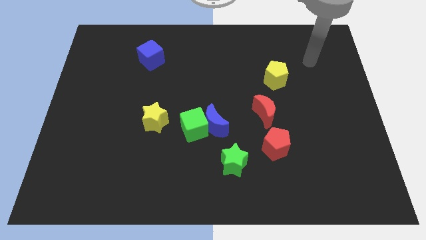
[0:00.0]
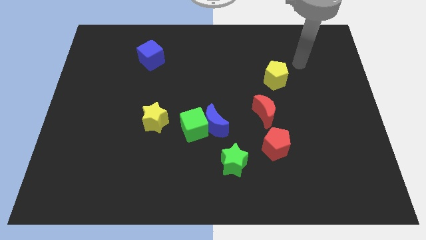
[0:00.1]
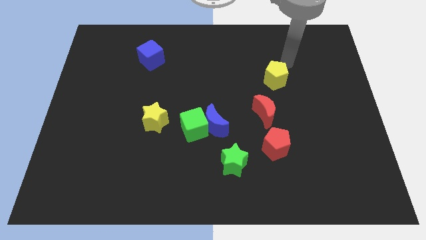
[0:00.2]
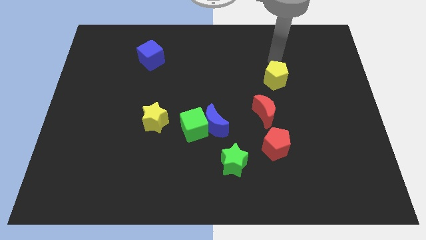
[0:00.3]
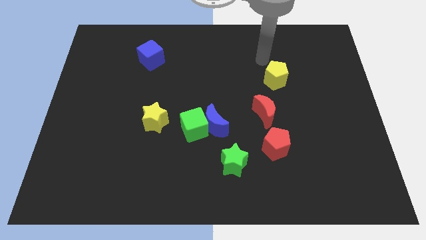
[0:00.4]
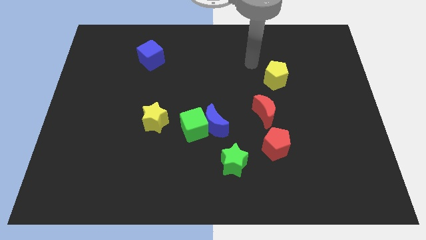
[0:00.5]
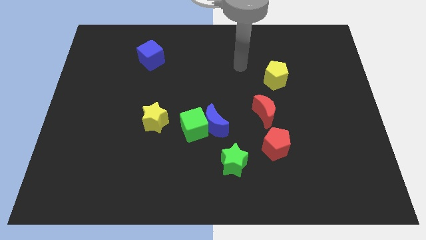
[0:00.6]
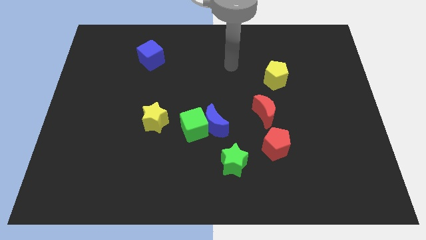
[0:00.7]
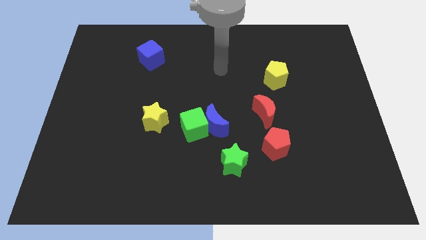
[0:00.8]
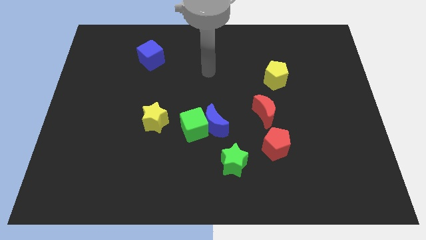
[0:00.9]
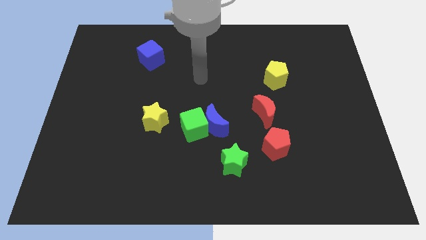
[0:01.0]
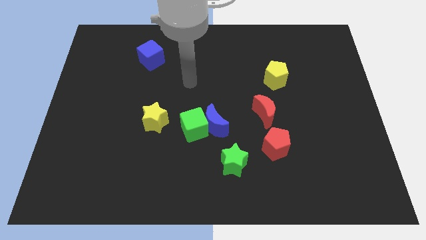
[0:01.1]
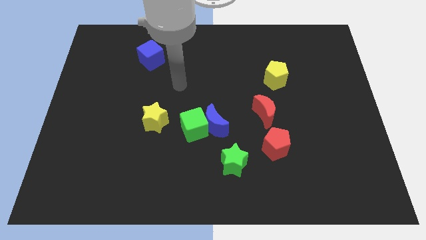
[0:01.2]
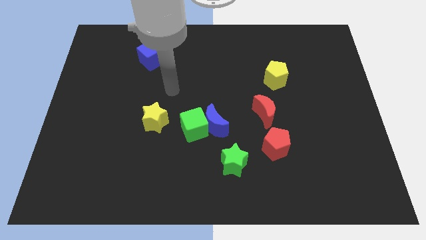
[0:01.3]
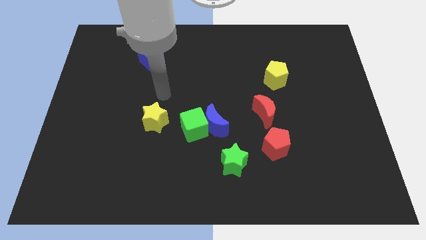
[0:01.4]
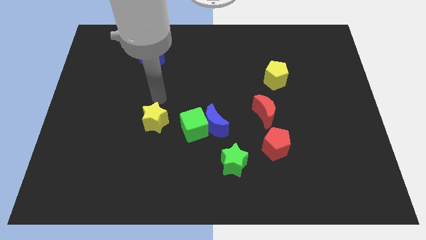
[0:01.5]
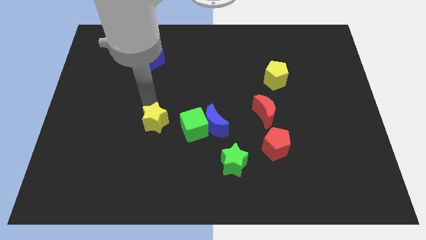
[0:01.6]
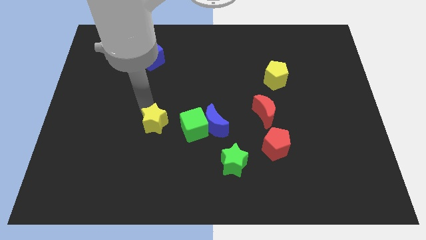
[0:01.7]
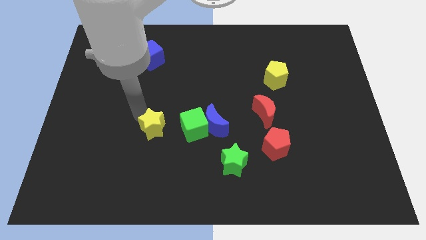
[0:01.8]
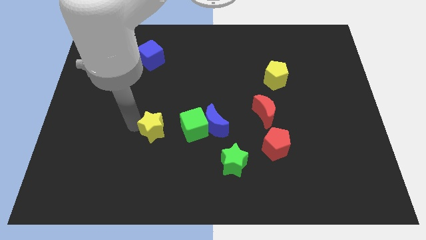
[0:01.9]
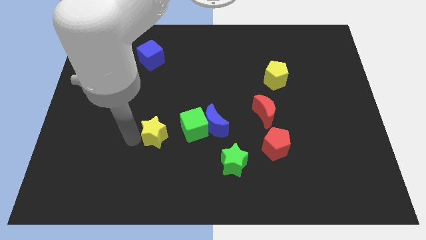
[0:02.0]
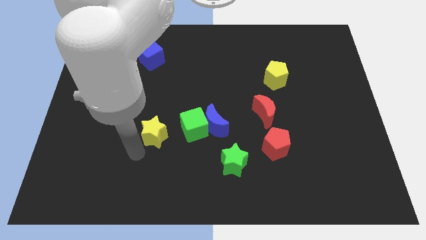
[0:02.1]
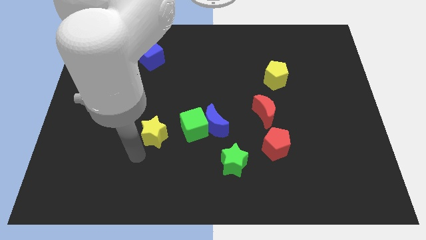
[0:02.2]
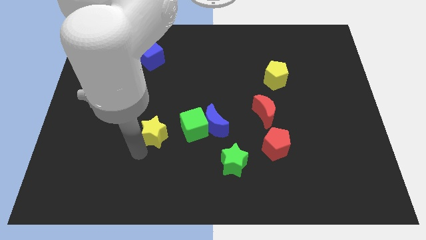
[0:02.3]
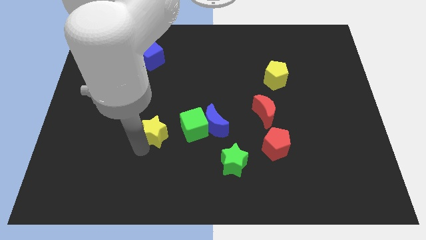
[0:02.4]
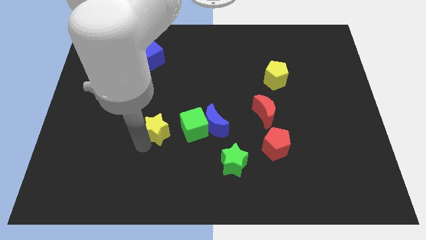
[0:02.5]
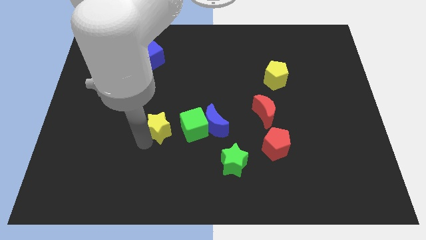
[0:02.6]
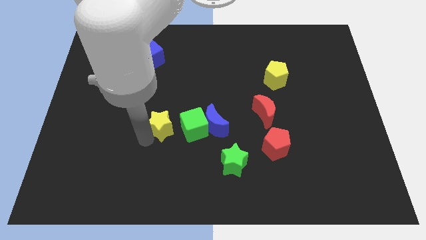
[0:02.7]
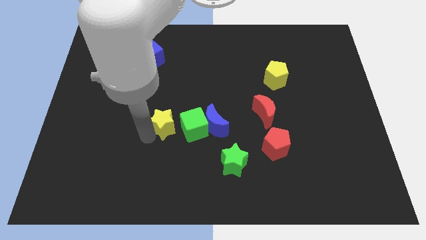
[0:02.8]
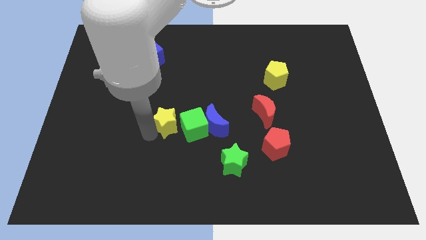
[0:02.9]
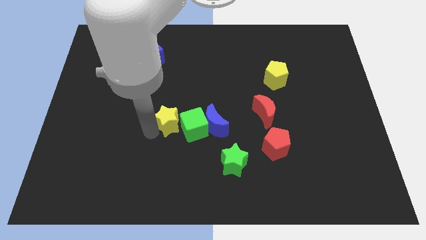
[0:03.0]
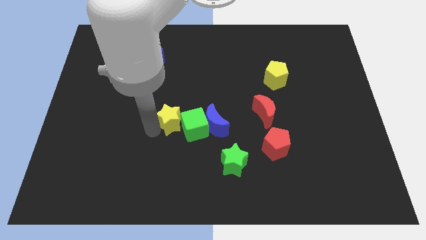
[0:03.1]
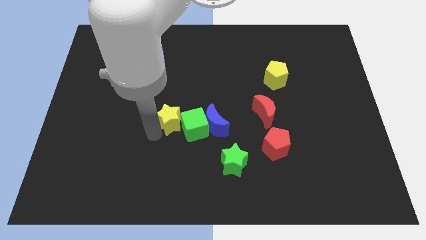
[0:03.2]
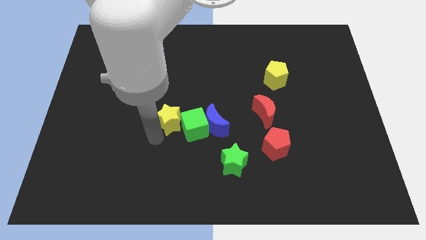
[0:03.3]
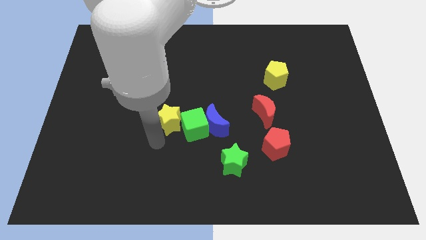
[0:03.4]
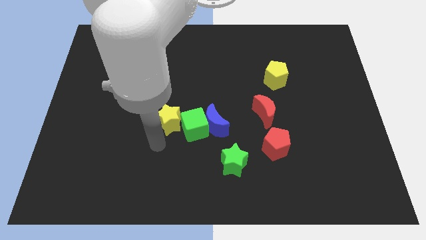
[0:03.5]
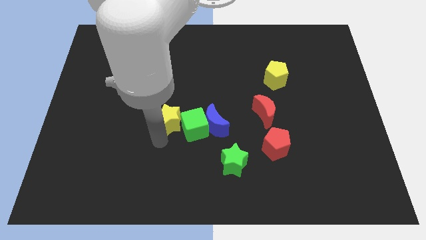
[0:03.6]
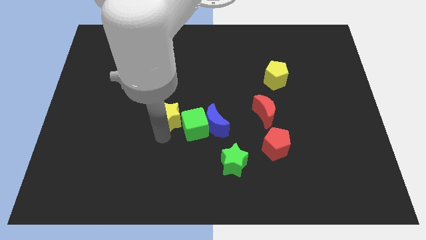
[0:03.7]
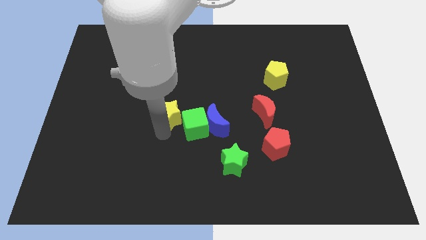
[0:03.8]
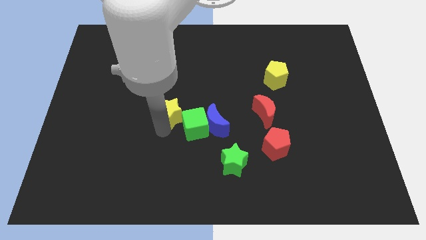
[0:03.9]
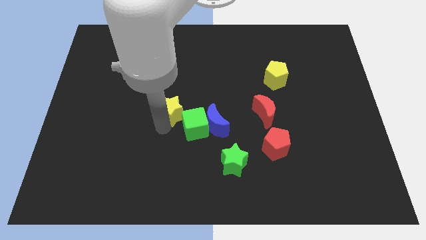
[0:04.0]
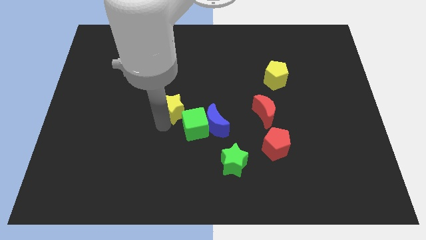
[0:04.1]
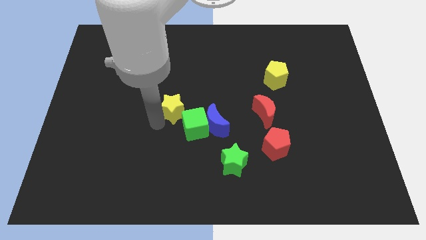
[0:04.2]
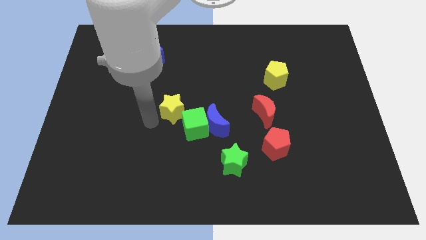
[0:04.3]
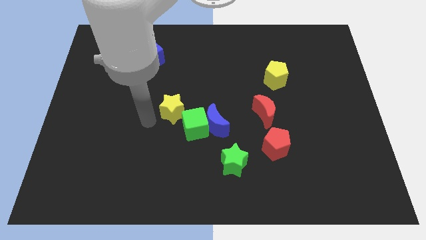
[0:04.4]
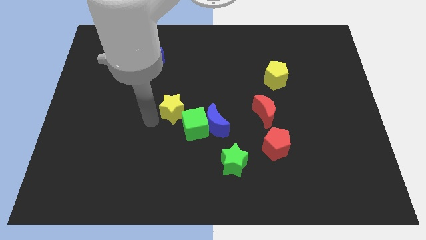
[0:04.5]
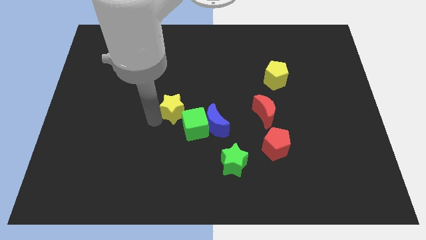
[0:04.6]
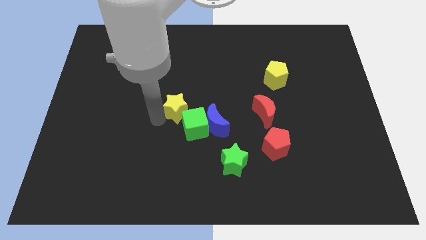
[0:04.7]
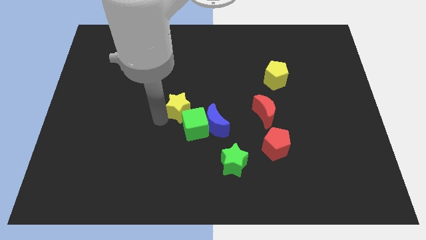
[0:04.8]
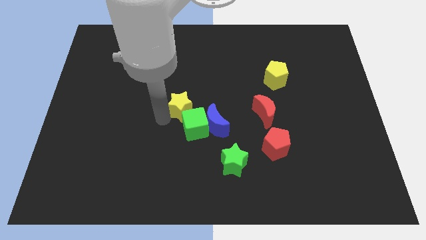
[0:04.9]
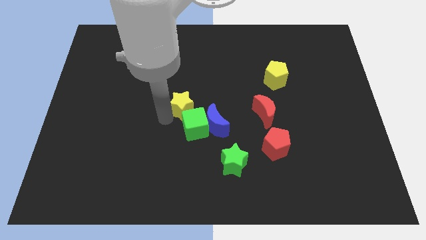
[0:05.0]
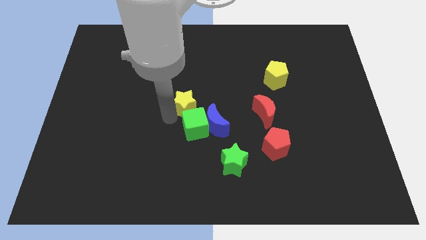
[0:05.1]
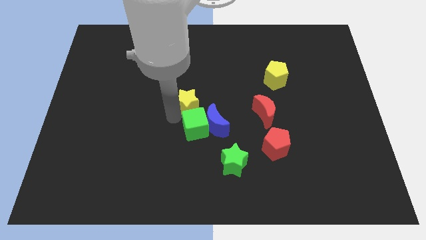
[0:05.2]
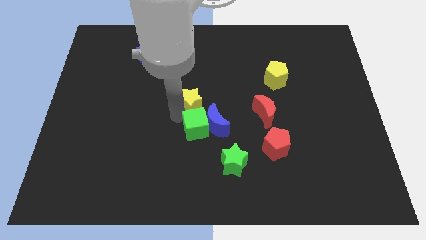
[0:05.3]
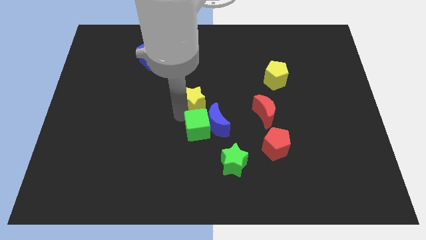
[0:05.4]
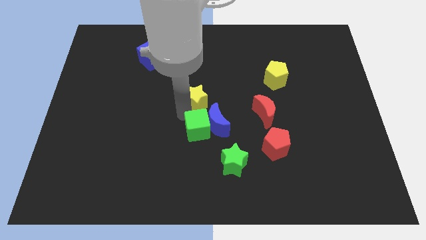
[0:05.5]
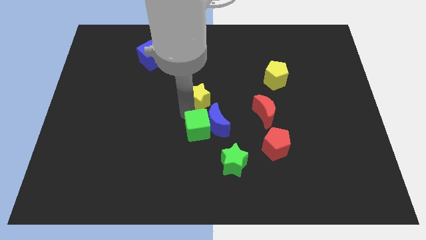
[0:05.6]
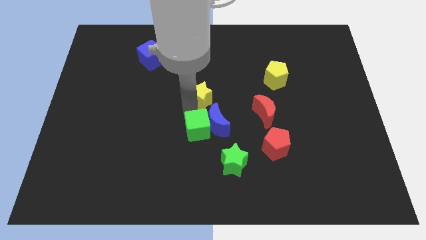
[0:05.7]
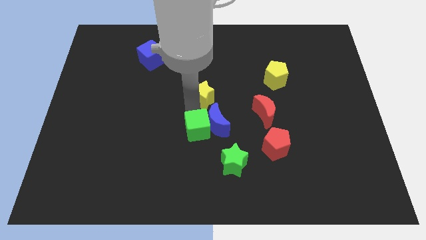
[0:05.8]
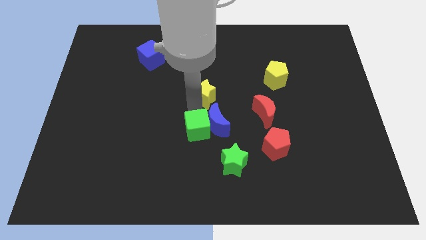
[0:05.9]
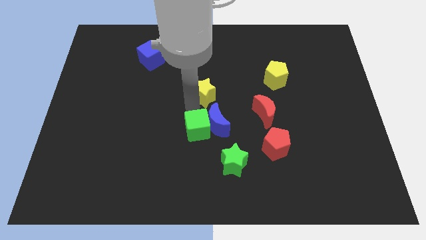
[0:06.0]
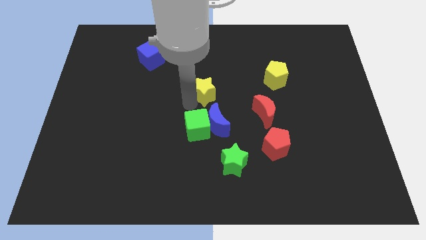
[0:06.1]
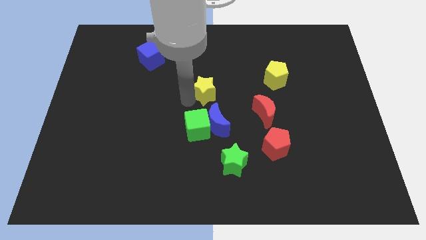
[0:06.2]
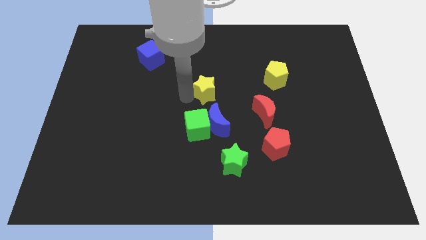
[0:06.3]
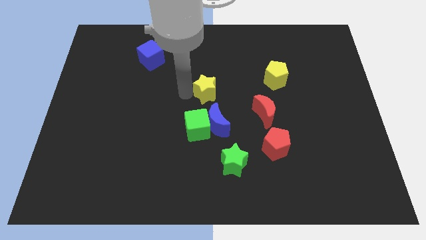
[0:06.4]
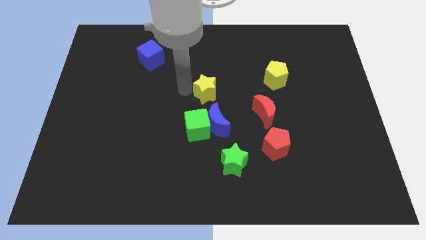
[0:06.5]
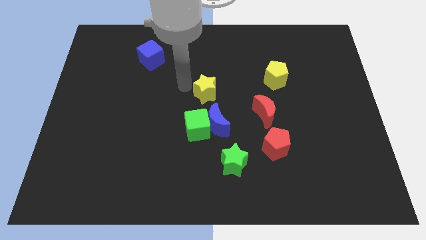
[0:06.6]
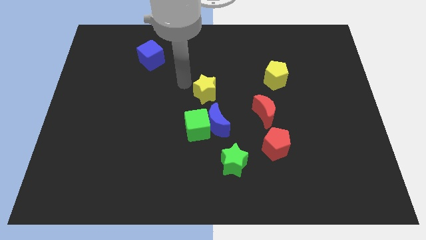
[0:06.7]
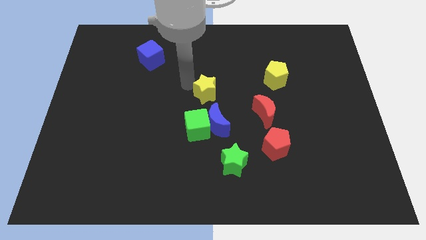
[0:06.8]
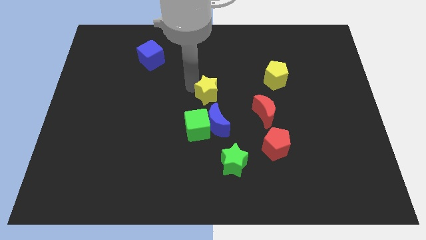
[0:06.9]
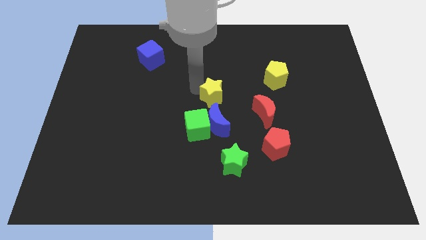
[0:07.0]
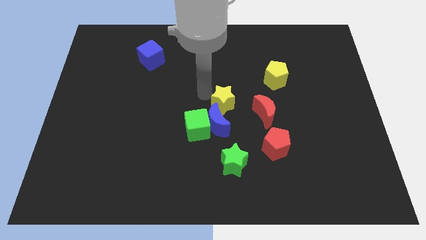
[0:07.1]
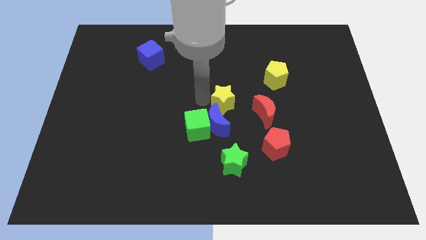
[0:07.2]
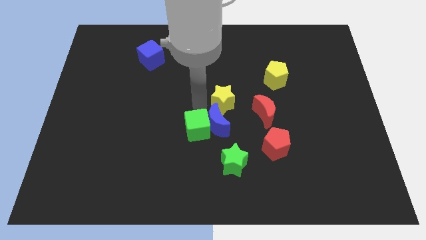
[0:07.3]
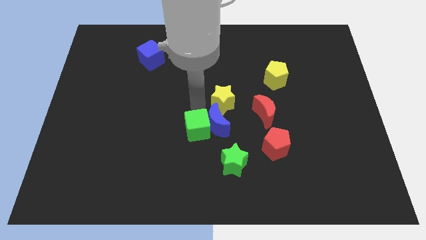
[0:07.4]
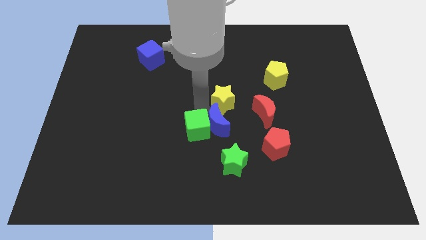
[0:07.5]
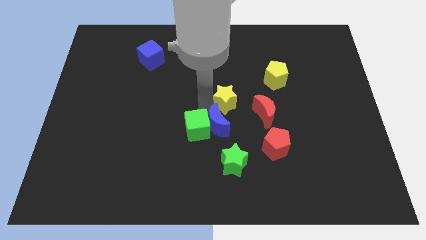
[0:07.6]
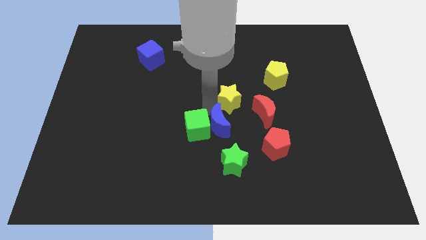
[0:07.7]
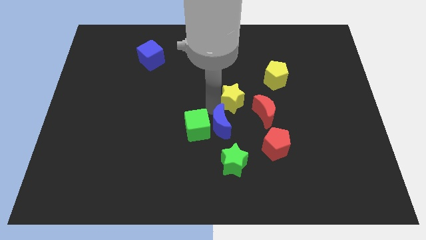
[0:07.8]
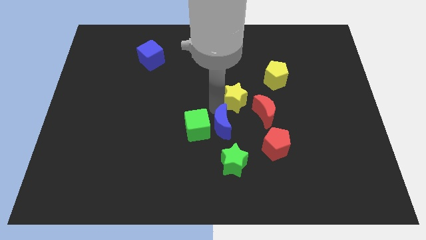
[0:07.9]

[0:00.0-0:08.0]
move the yellow star to the bottom left side of the yellow pentagon
